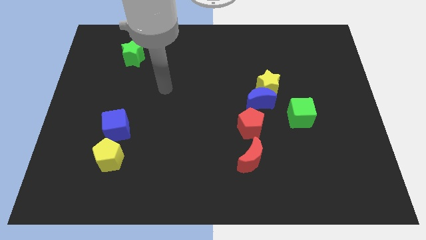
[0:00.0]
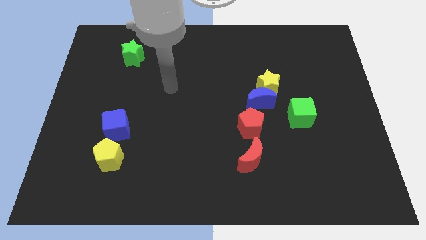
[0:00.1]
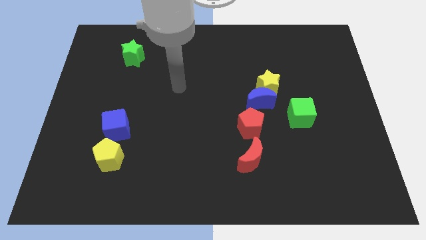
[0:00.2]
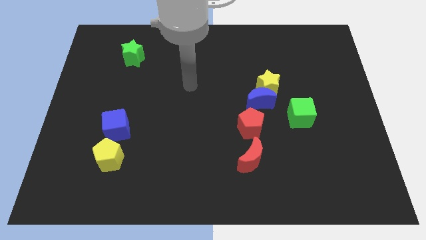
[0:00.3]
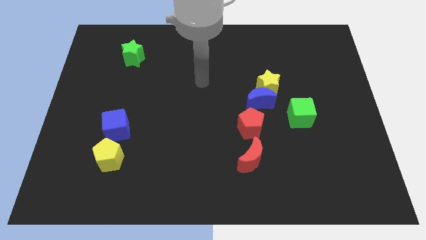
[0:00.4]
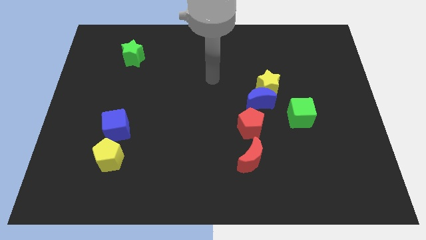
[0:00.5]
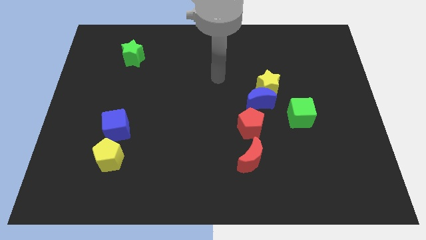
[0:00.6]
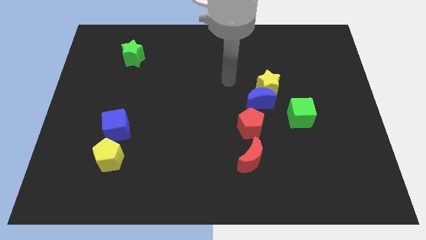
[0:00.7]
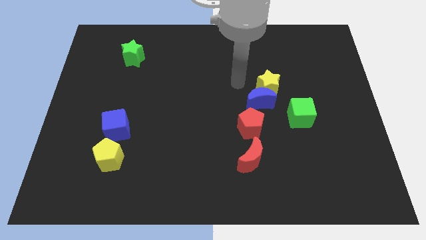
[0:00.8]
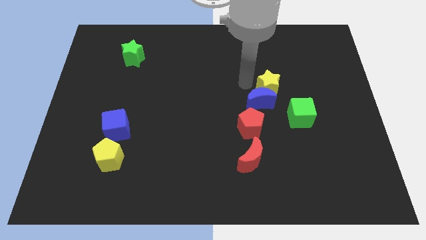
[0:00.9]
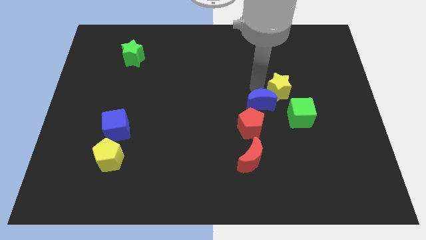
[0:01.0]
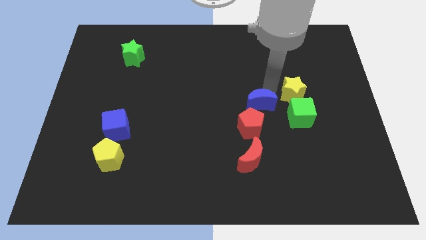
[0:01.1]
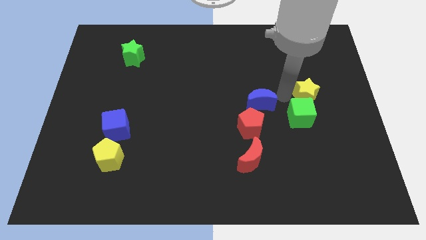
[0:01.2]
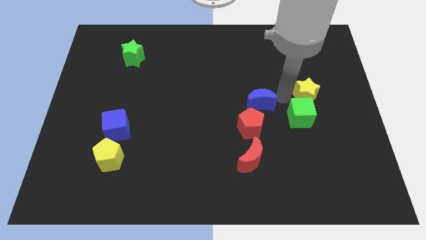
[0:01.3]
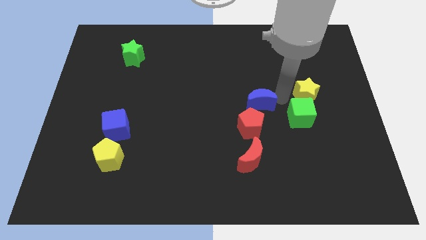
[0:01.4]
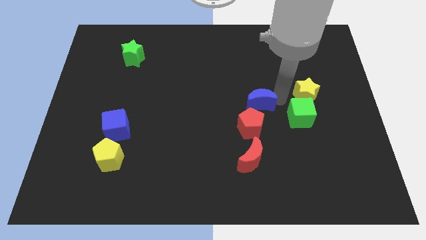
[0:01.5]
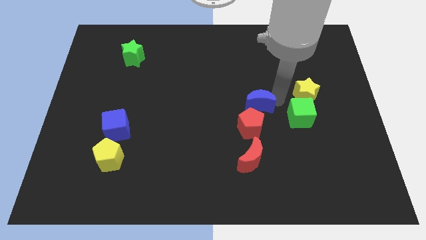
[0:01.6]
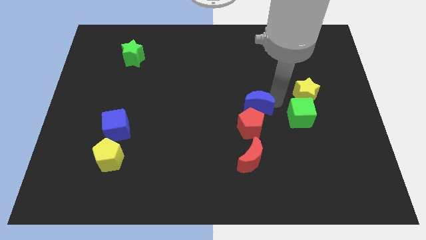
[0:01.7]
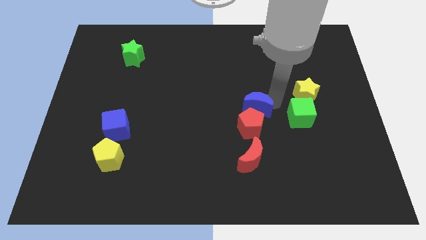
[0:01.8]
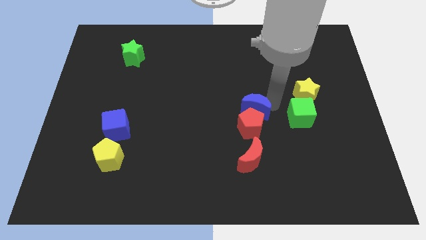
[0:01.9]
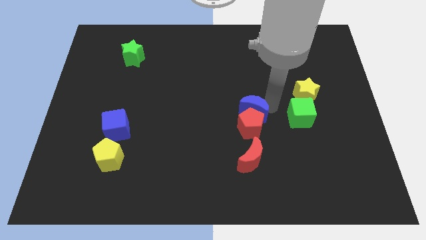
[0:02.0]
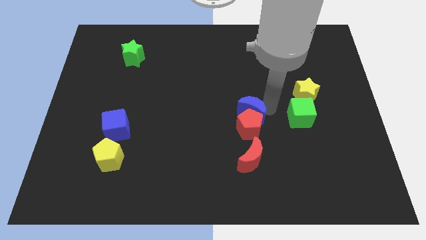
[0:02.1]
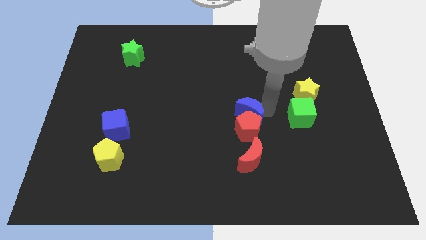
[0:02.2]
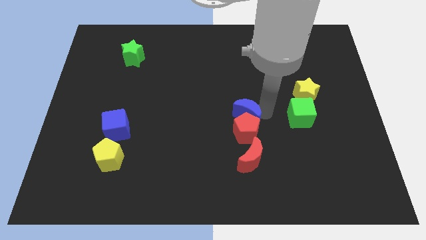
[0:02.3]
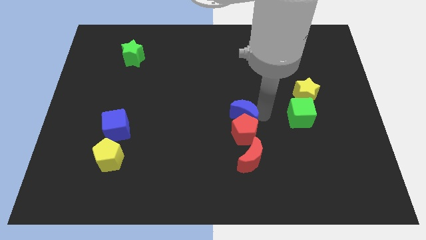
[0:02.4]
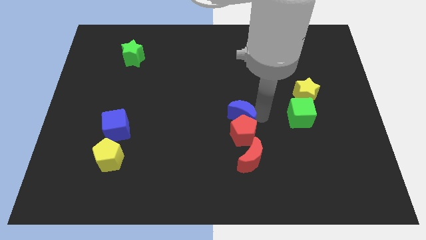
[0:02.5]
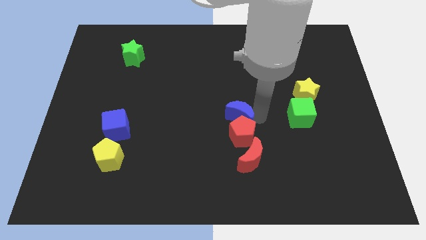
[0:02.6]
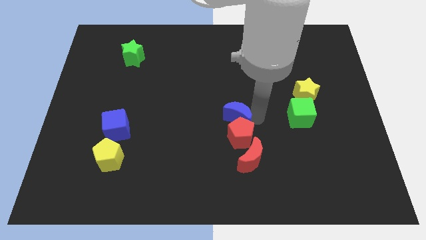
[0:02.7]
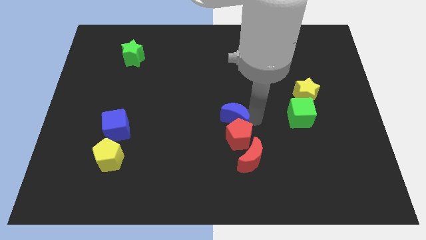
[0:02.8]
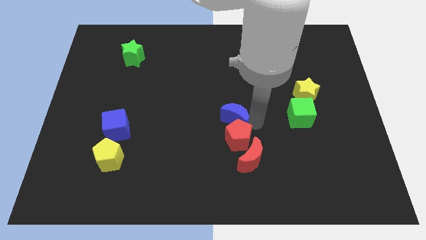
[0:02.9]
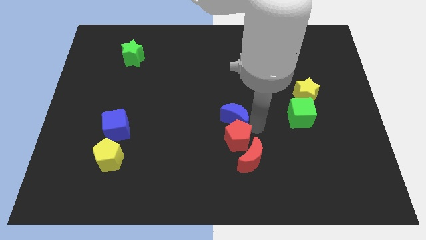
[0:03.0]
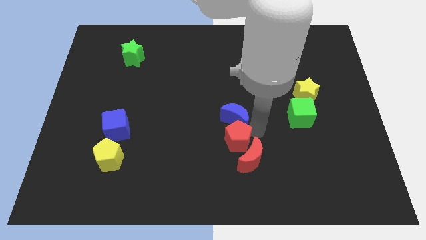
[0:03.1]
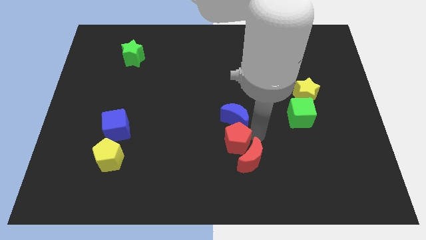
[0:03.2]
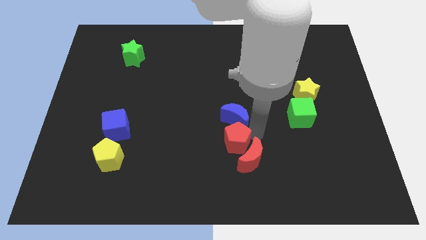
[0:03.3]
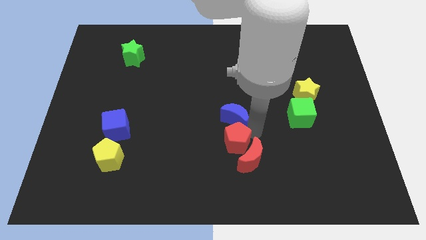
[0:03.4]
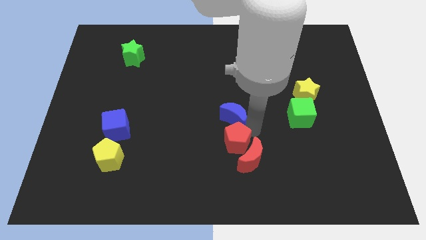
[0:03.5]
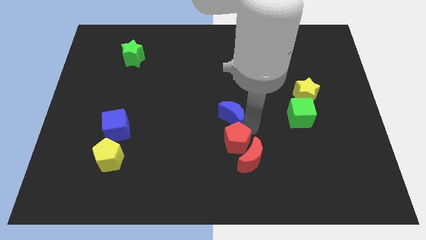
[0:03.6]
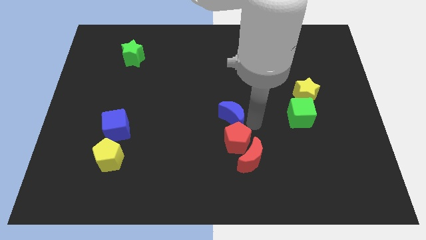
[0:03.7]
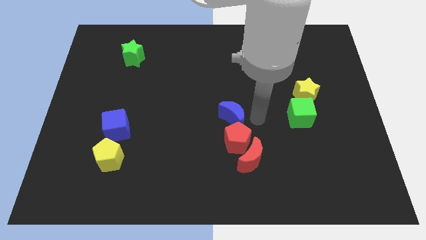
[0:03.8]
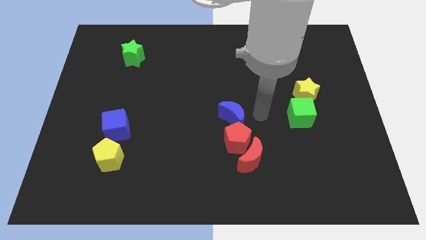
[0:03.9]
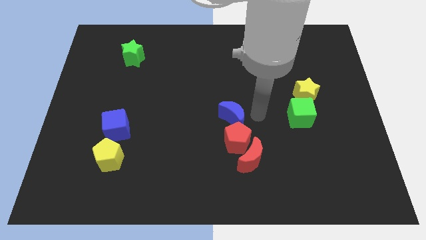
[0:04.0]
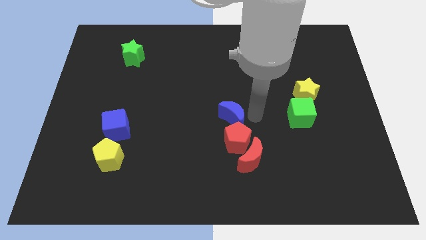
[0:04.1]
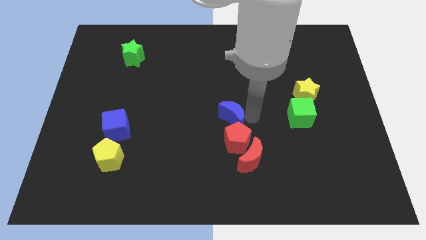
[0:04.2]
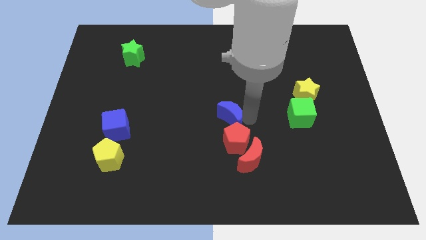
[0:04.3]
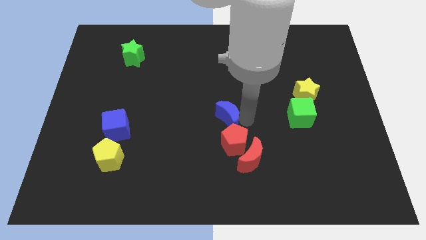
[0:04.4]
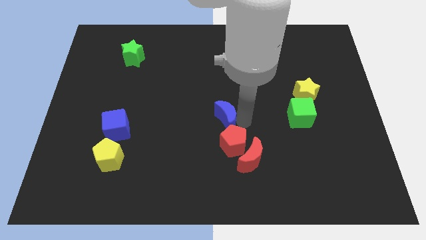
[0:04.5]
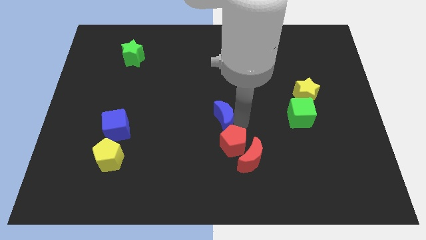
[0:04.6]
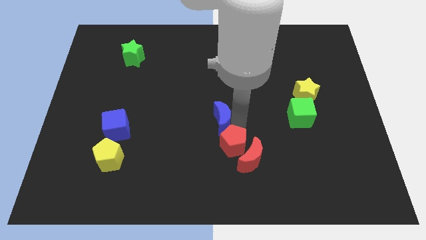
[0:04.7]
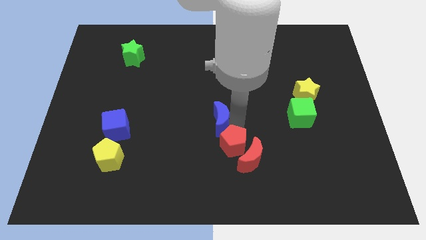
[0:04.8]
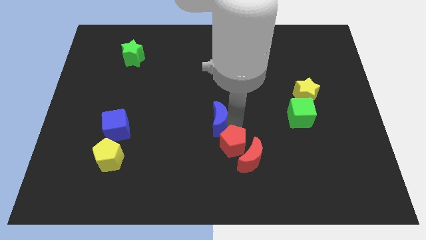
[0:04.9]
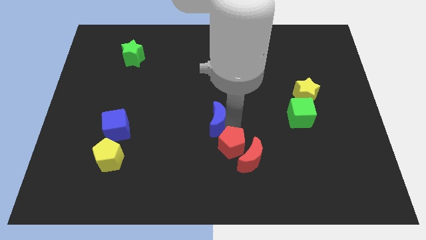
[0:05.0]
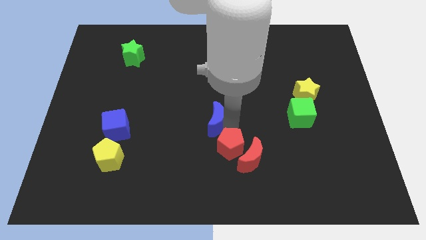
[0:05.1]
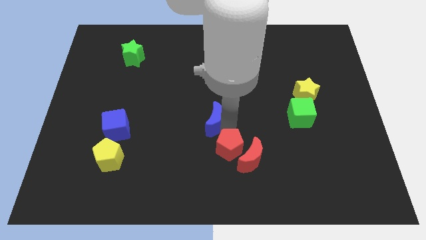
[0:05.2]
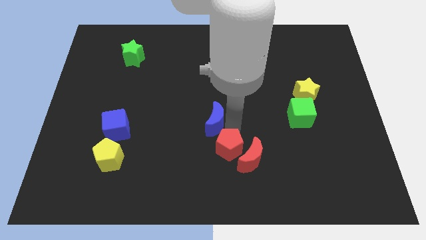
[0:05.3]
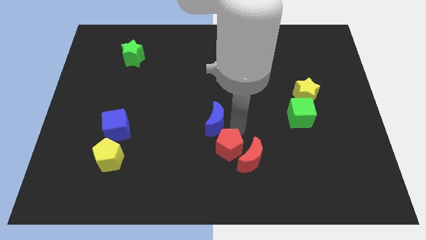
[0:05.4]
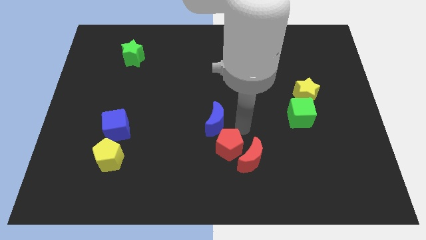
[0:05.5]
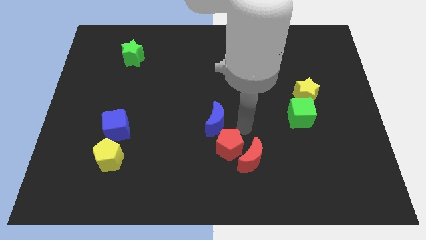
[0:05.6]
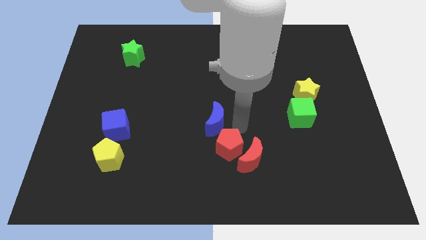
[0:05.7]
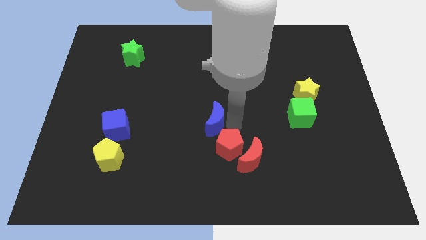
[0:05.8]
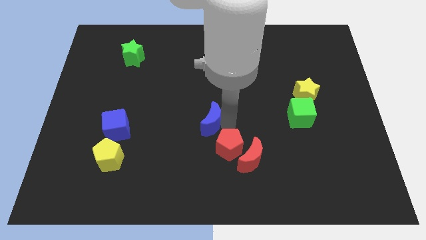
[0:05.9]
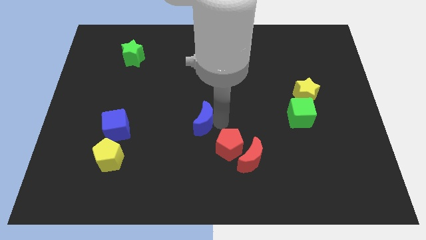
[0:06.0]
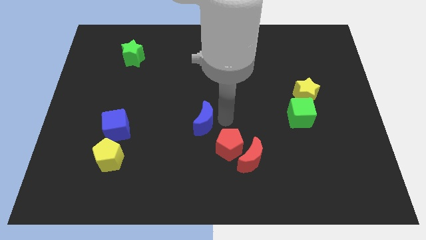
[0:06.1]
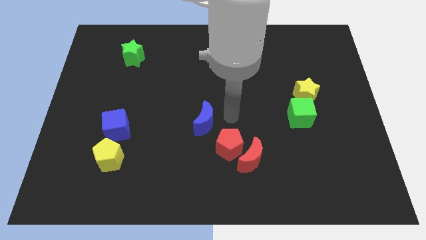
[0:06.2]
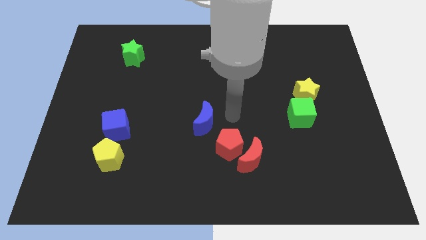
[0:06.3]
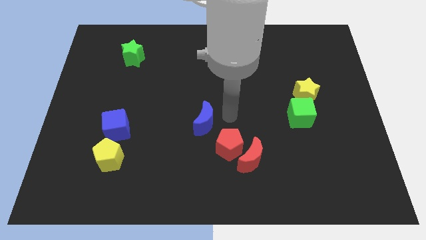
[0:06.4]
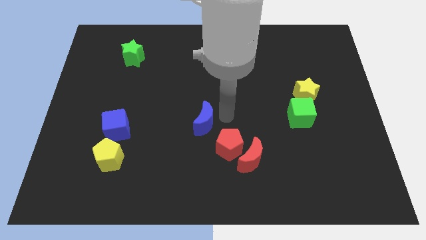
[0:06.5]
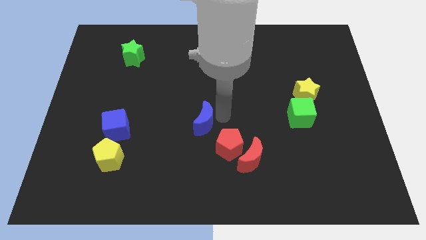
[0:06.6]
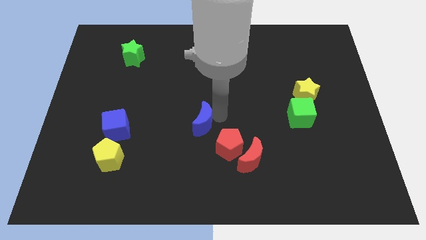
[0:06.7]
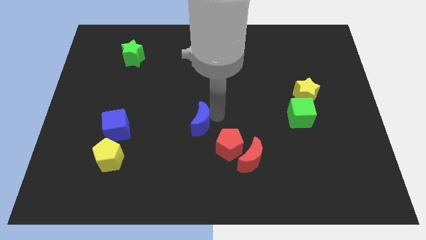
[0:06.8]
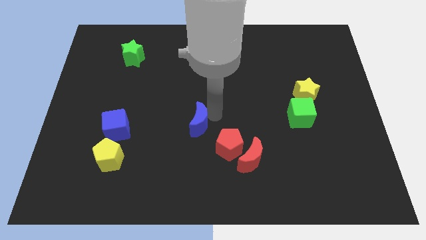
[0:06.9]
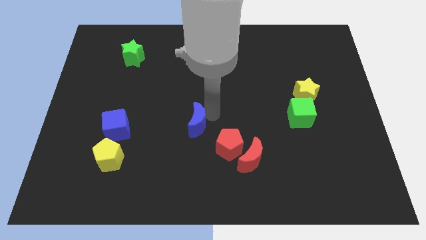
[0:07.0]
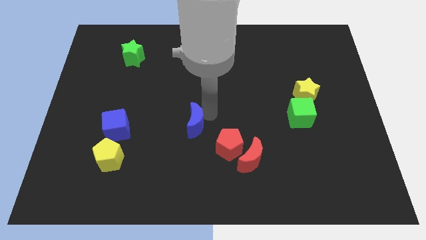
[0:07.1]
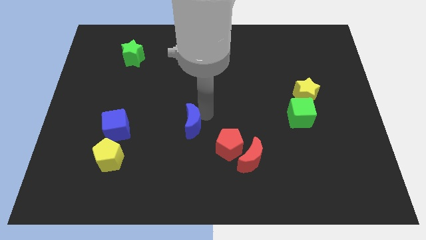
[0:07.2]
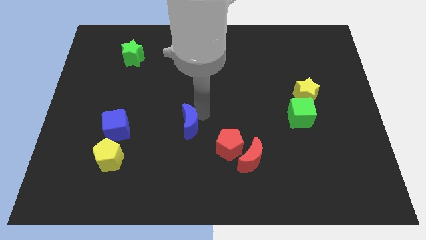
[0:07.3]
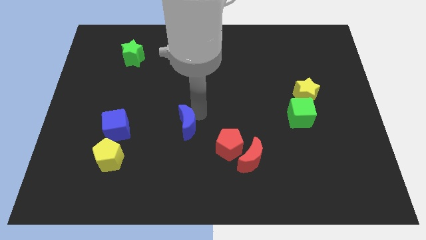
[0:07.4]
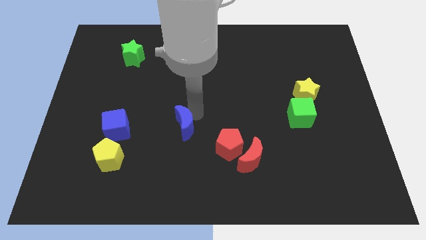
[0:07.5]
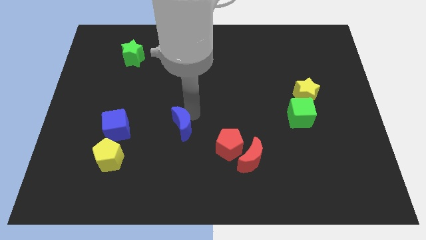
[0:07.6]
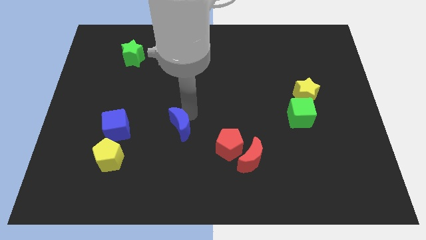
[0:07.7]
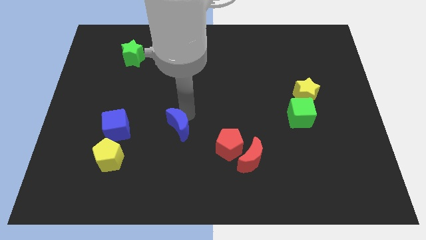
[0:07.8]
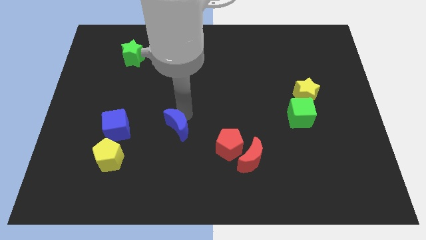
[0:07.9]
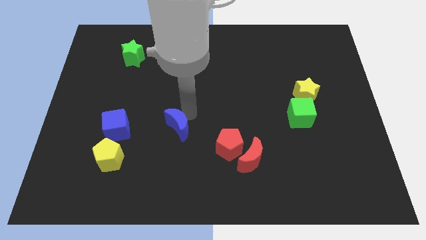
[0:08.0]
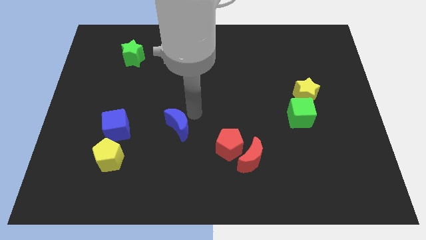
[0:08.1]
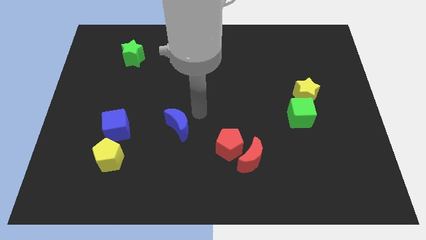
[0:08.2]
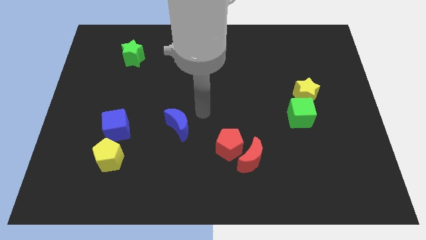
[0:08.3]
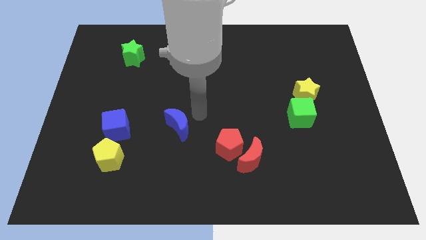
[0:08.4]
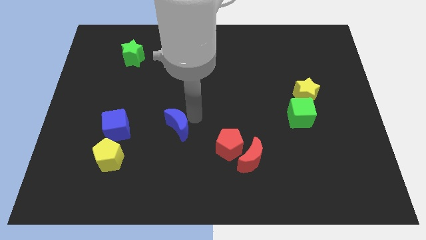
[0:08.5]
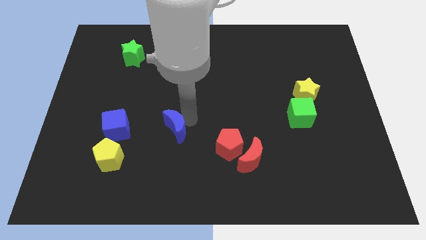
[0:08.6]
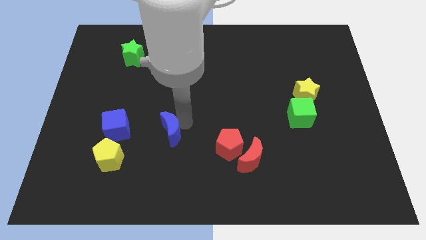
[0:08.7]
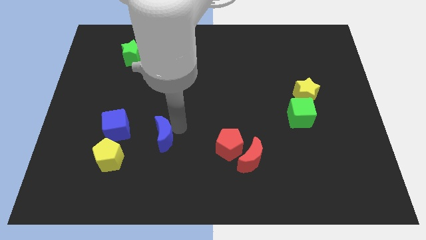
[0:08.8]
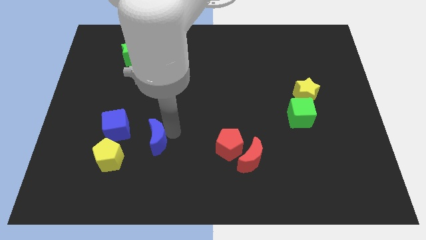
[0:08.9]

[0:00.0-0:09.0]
push the blue moon to the bottom right of the blue cube
